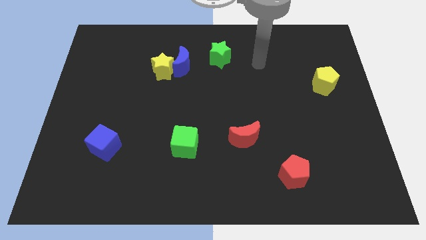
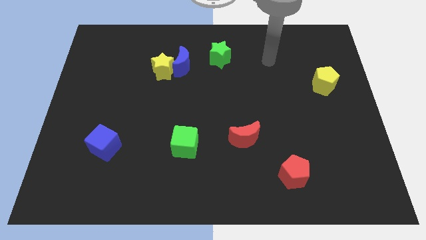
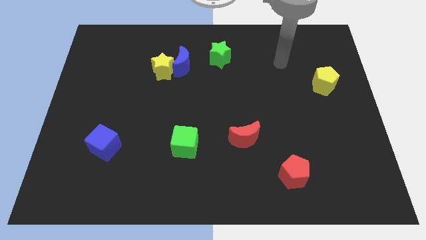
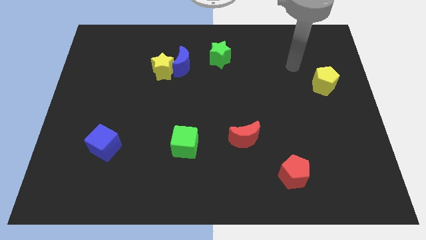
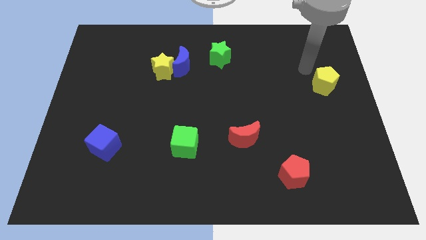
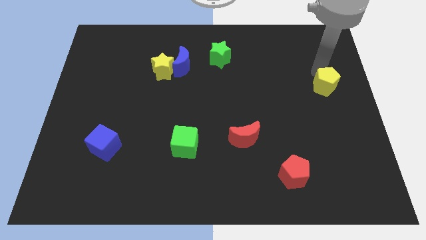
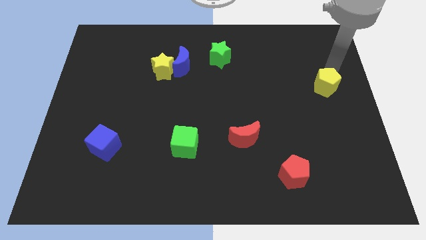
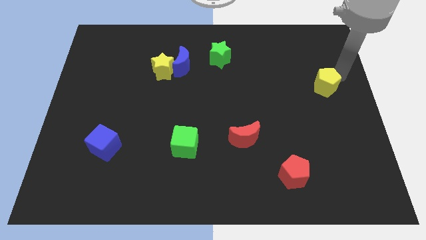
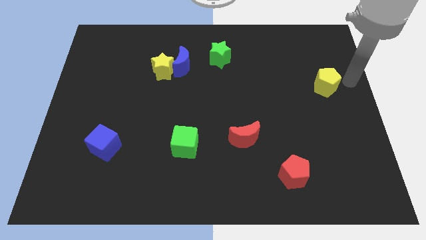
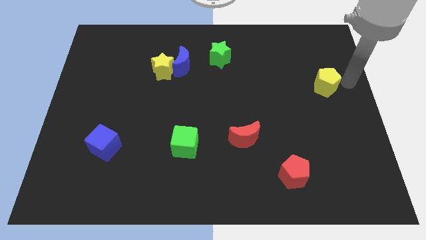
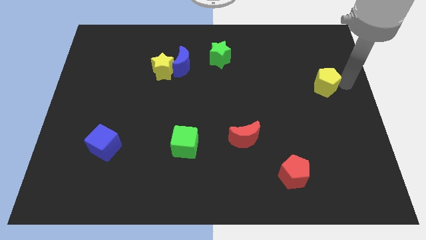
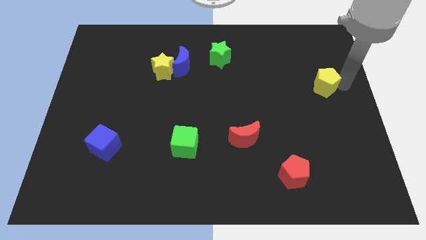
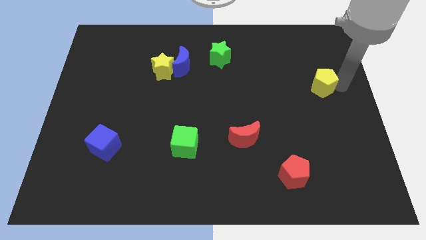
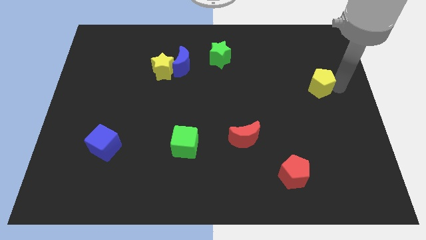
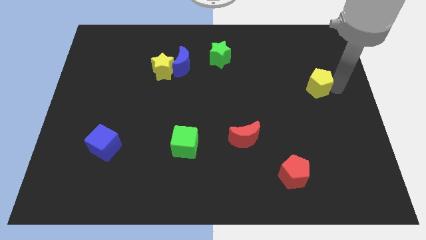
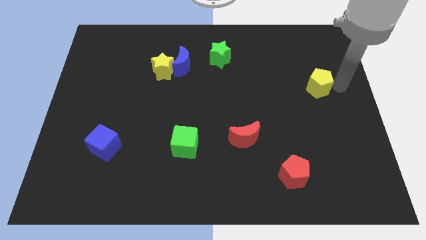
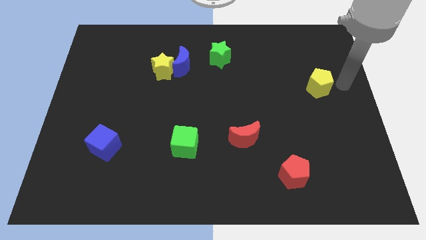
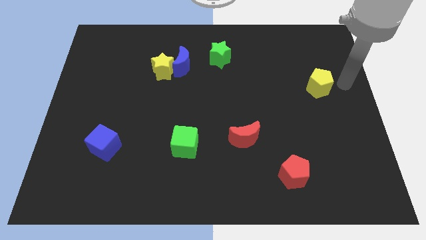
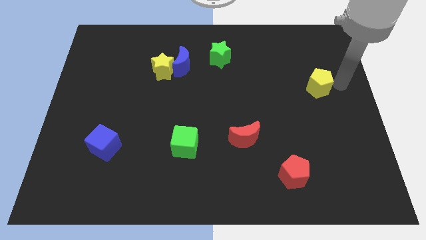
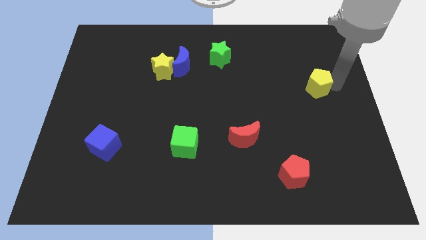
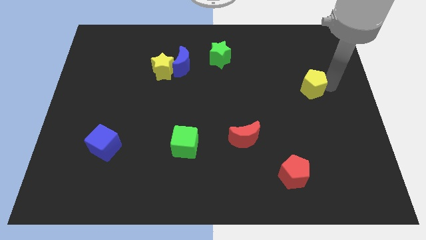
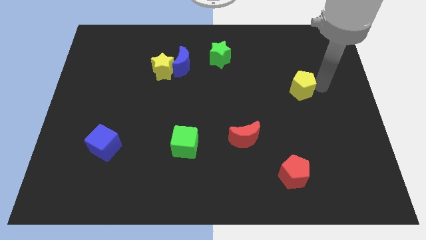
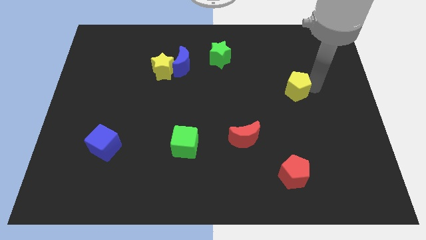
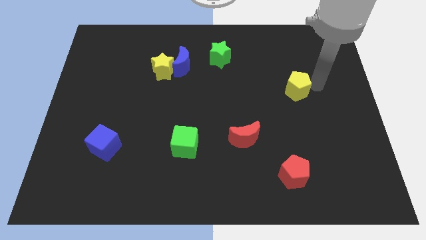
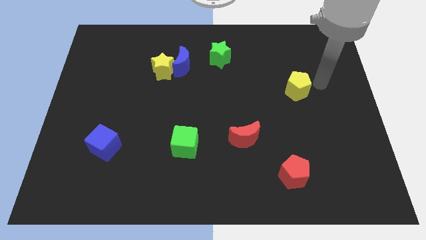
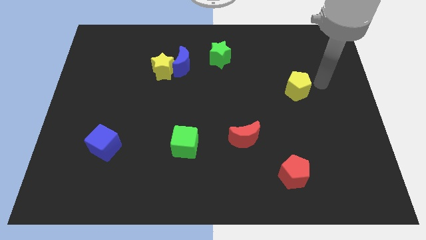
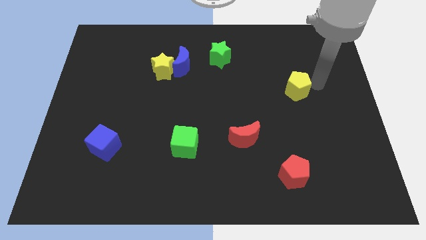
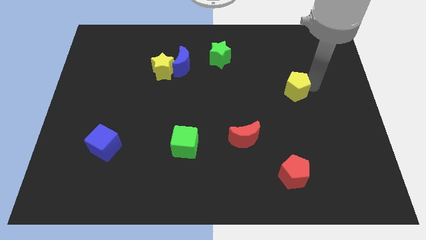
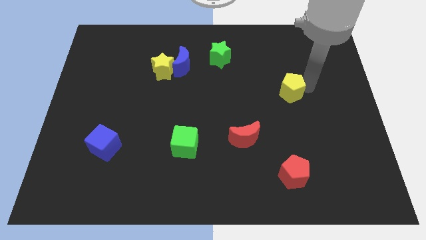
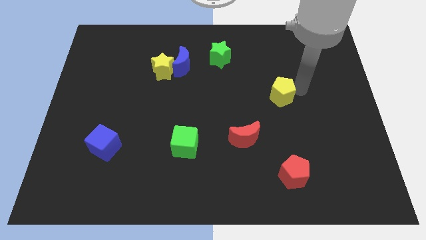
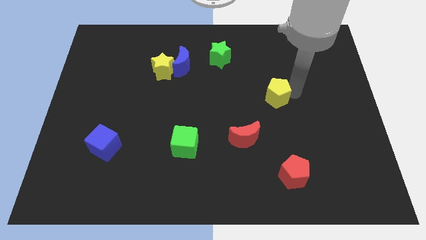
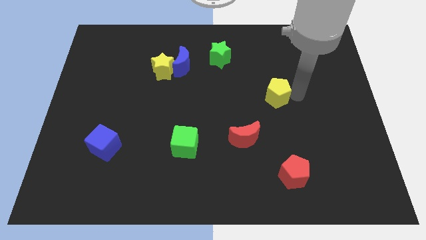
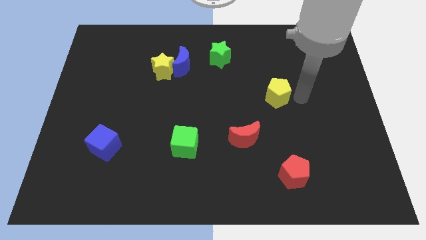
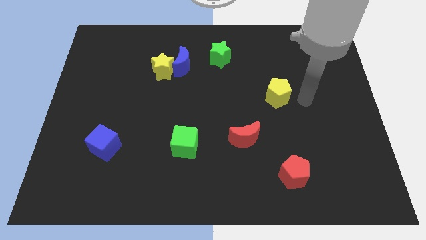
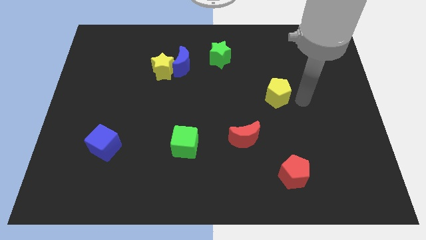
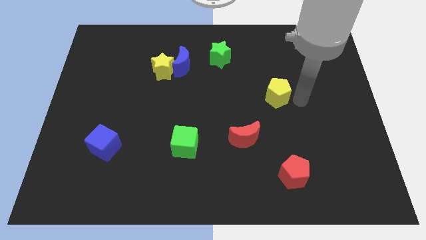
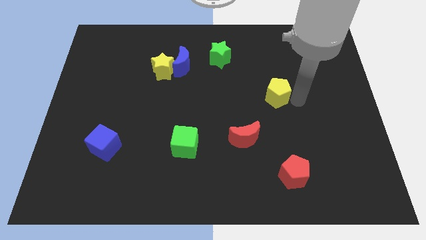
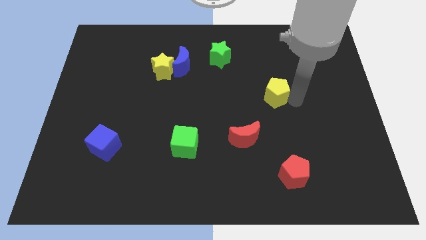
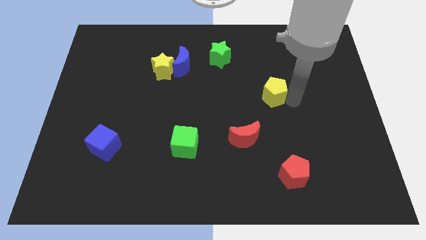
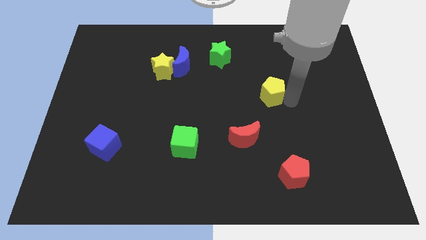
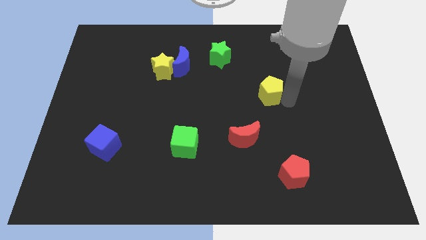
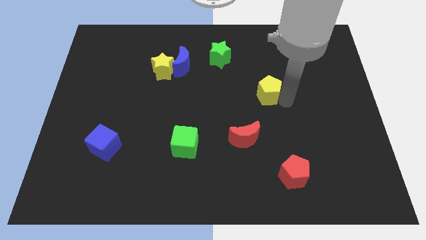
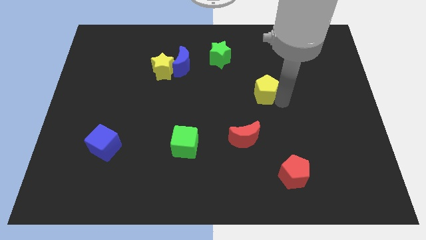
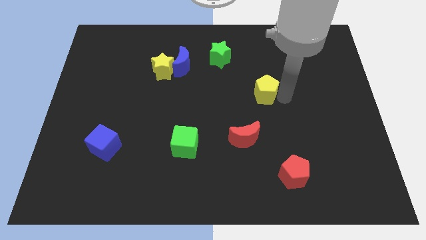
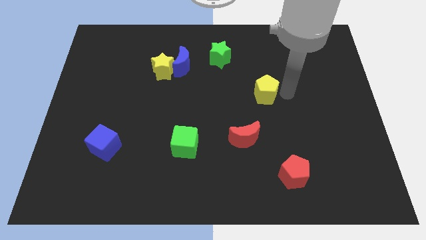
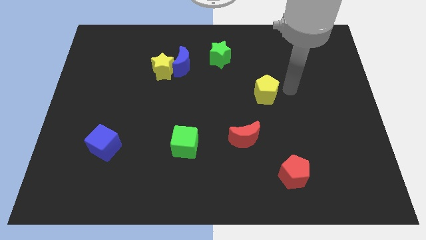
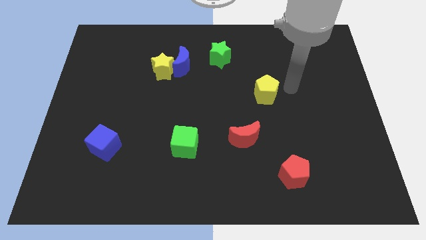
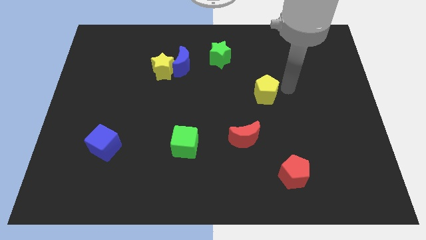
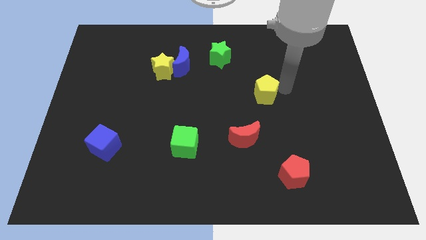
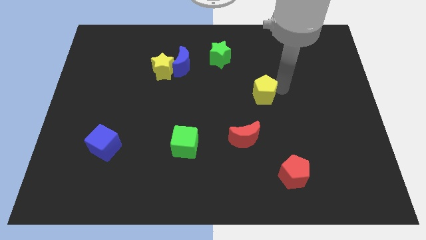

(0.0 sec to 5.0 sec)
put the yellow pentagon to the center of the board

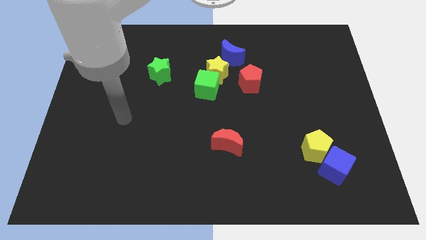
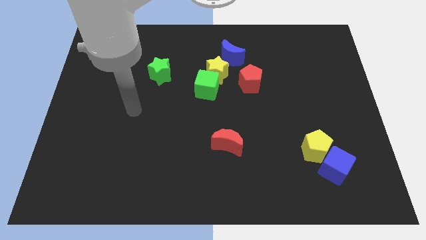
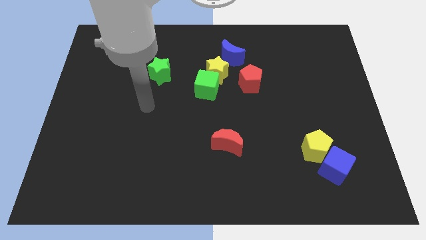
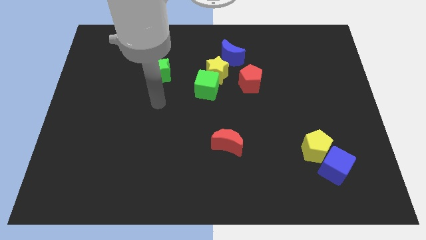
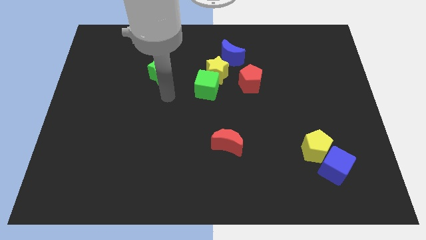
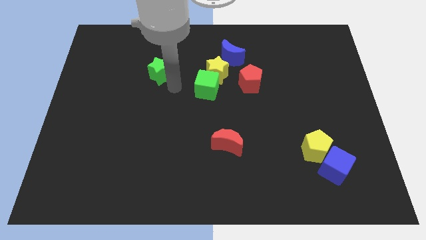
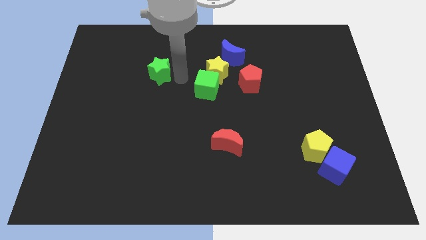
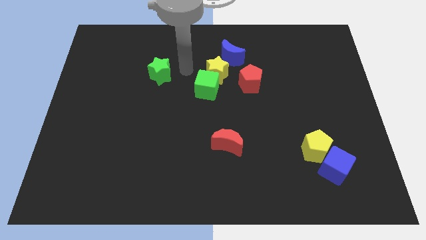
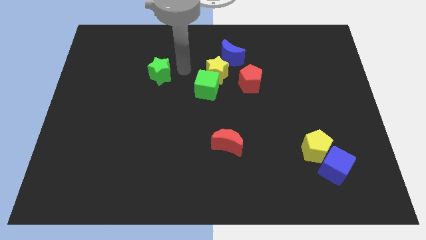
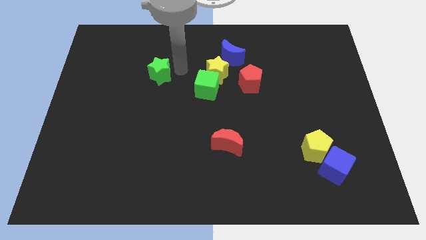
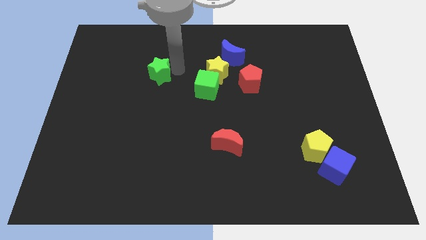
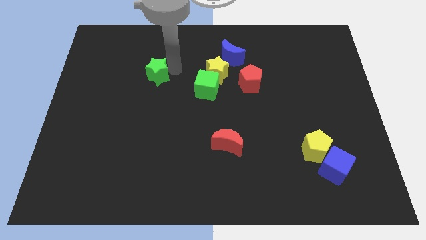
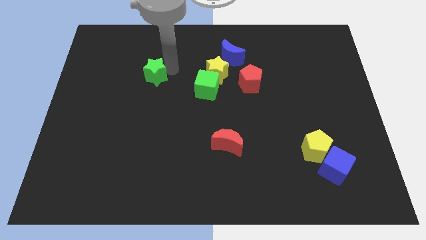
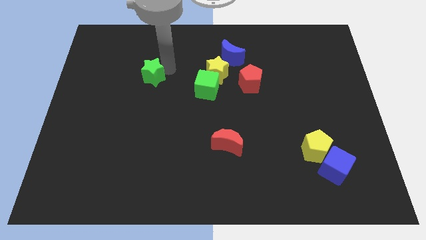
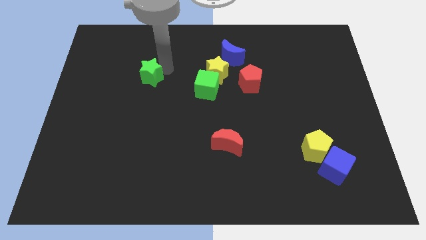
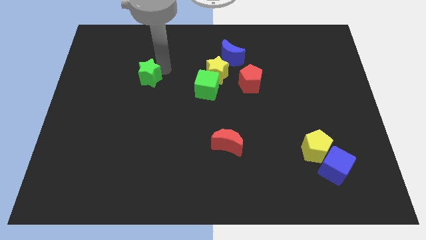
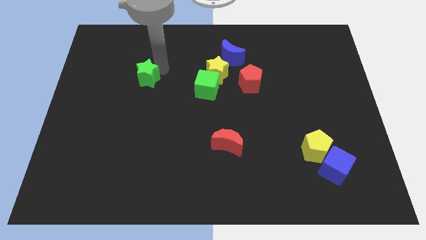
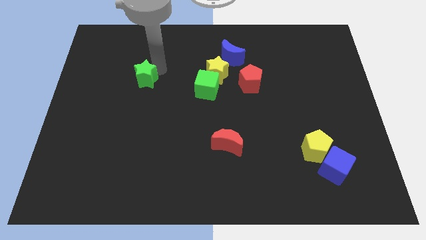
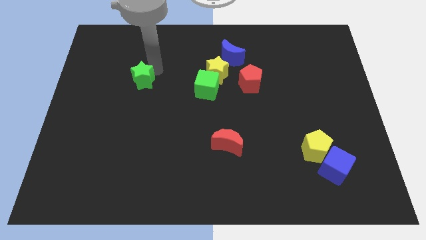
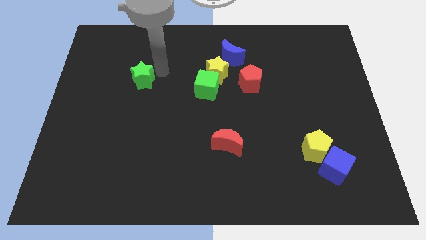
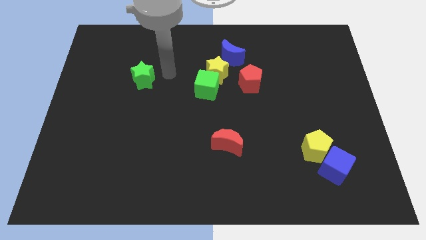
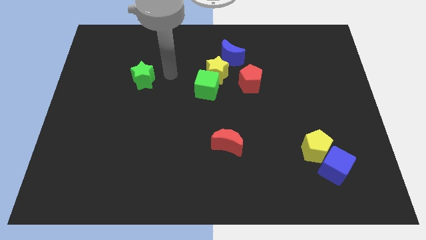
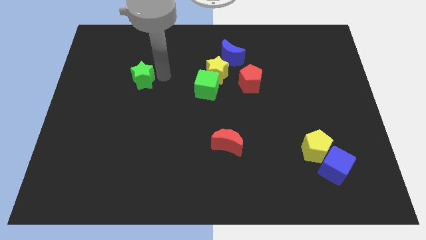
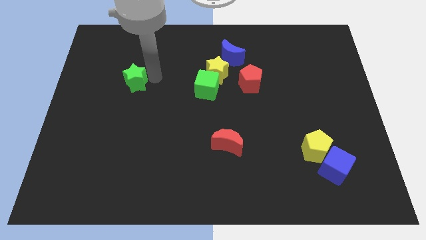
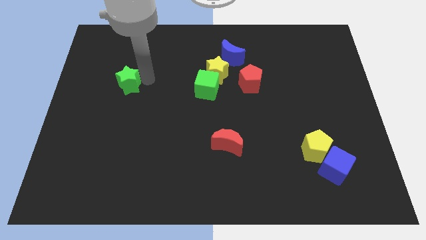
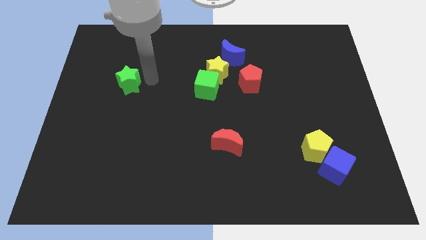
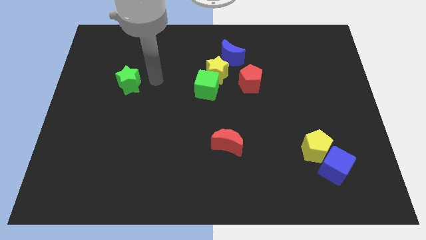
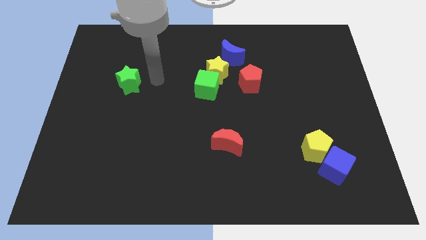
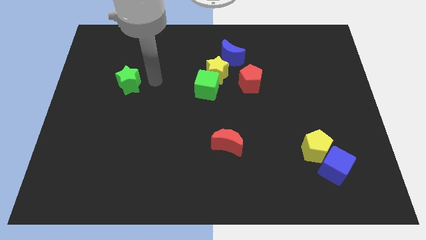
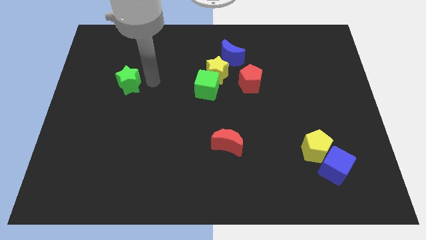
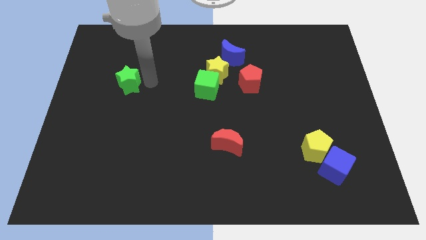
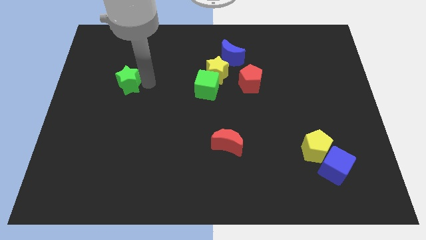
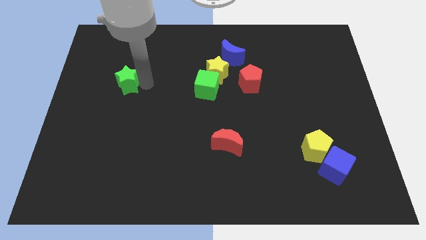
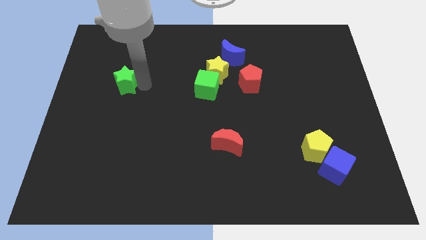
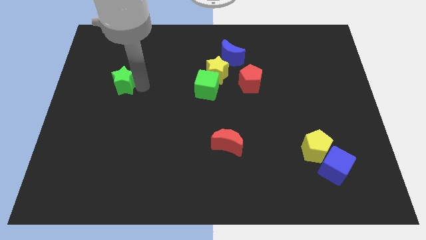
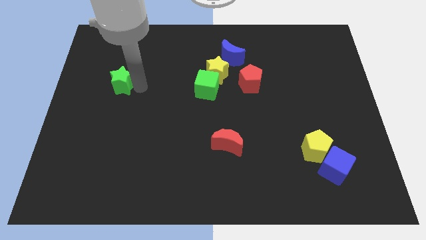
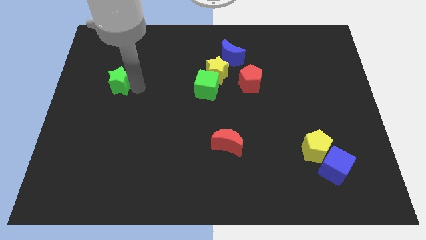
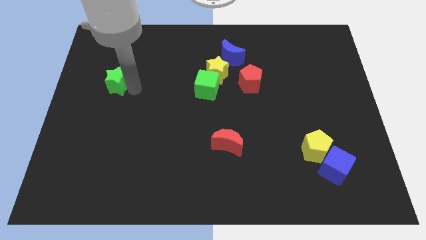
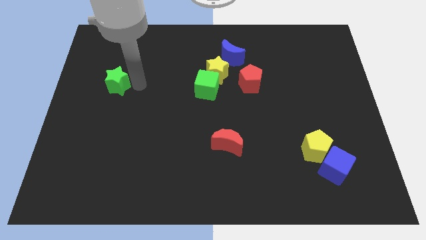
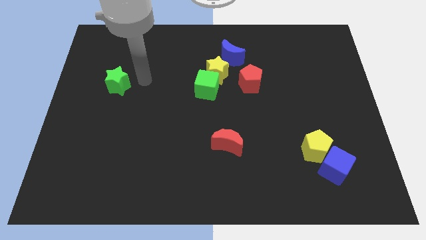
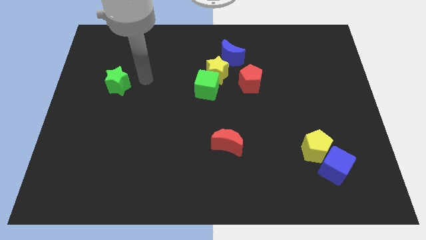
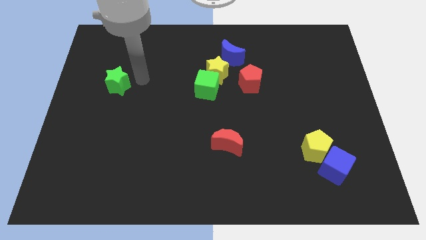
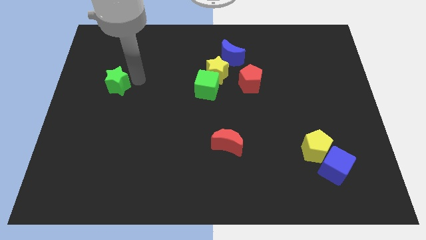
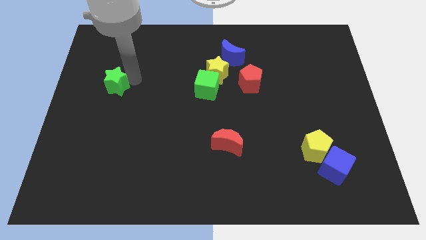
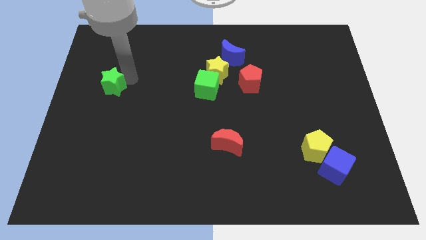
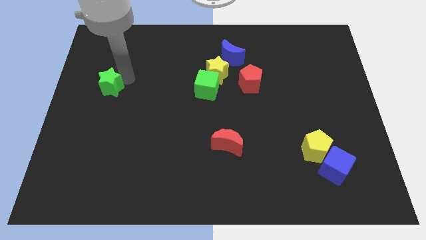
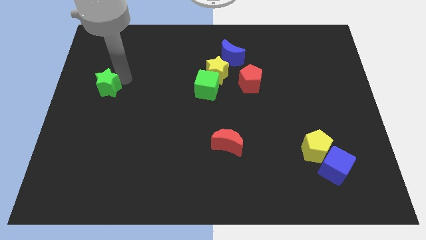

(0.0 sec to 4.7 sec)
push the green star to the center left
